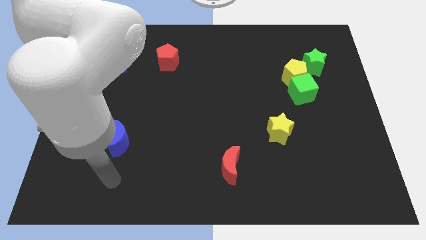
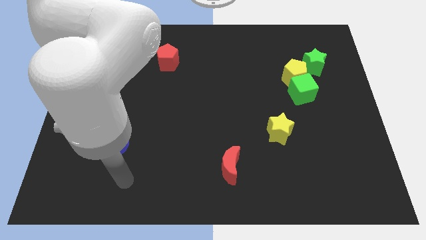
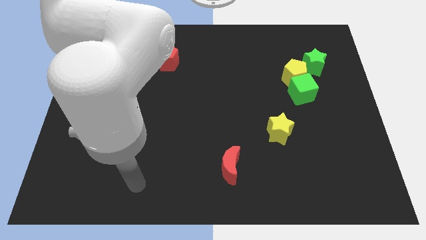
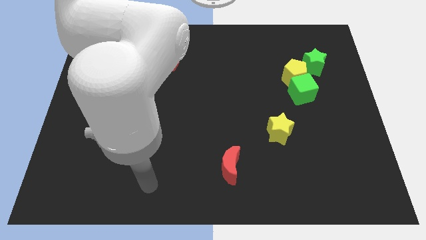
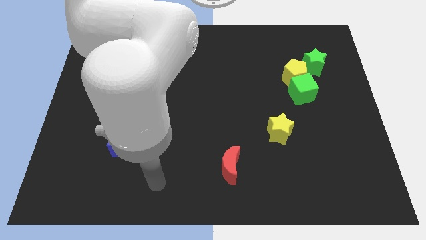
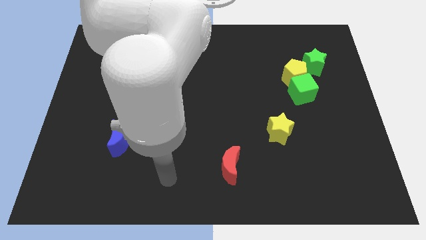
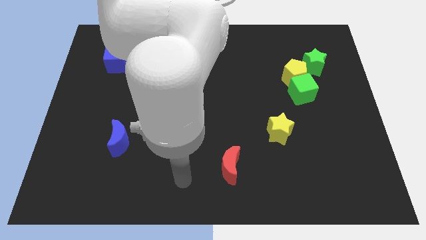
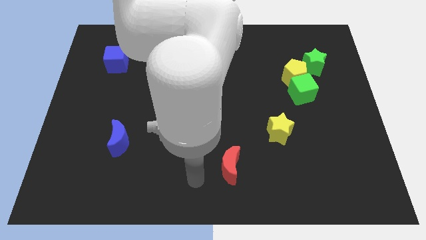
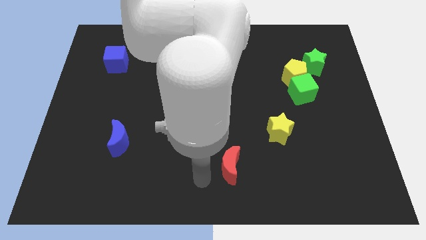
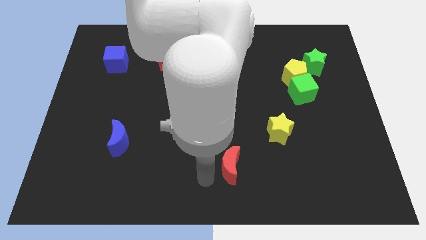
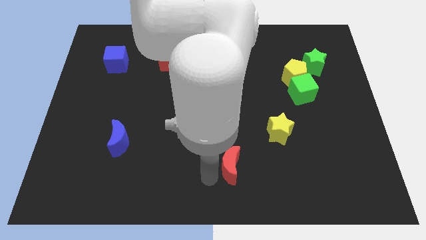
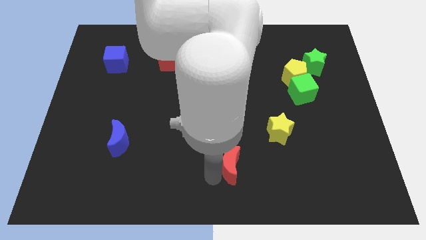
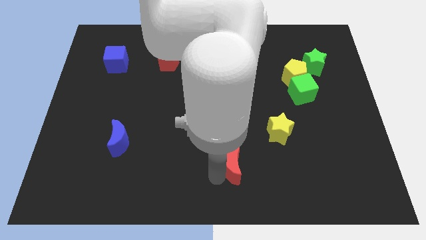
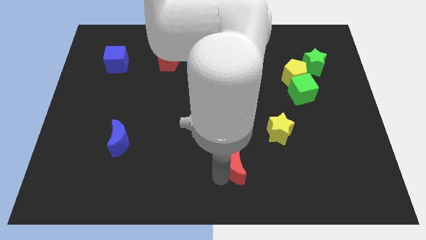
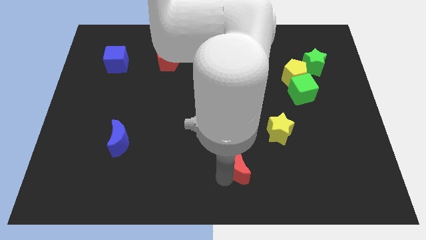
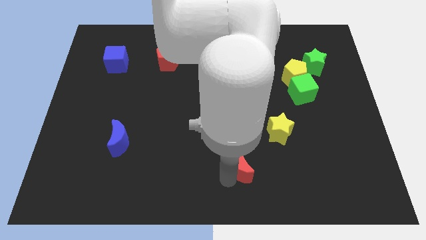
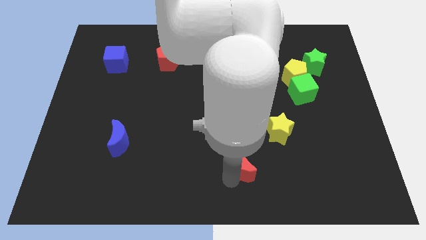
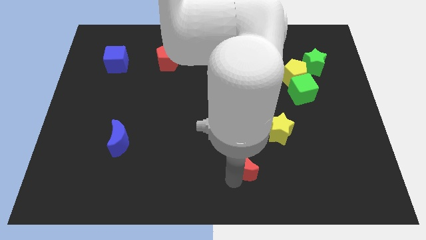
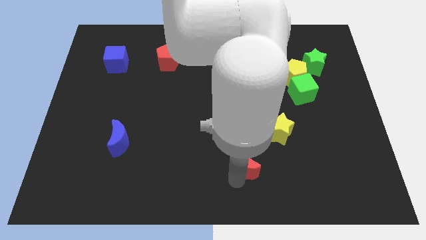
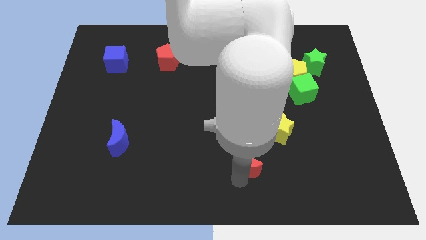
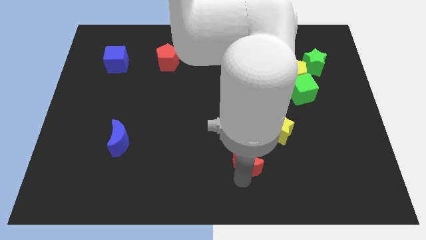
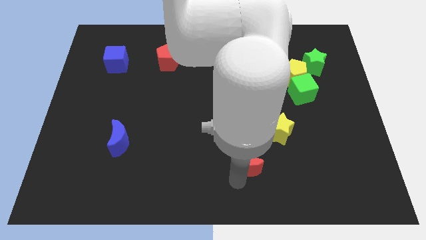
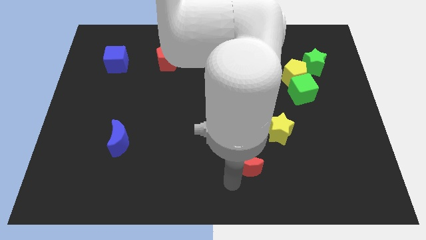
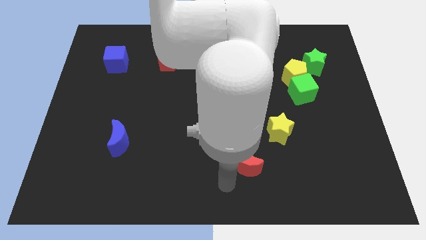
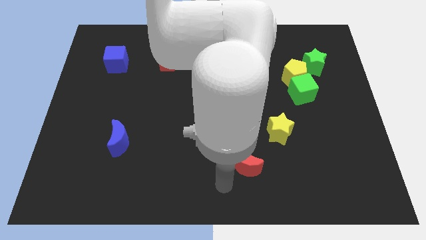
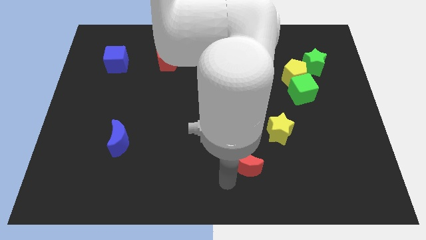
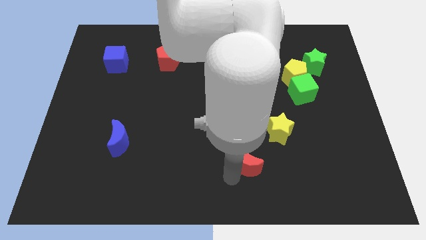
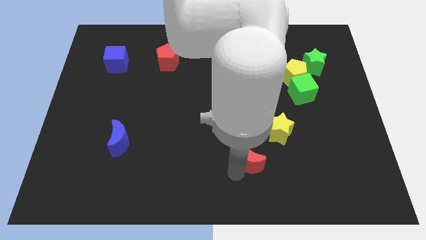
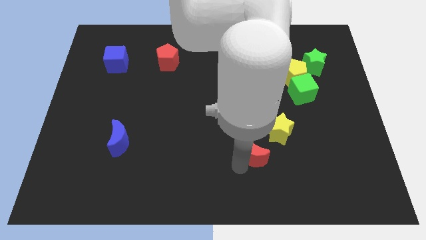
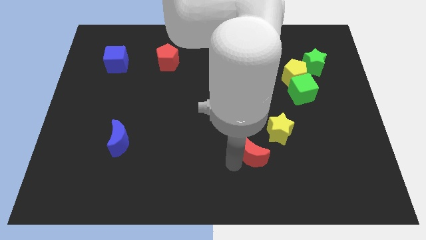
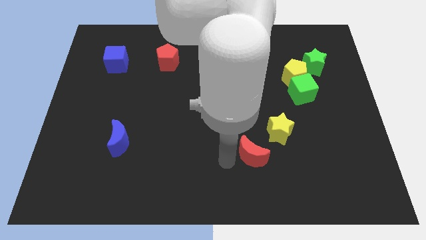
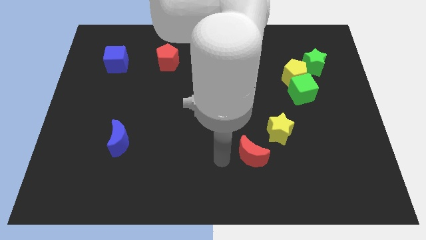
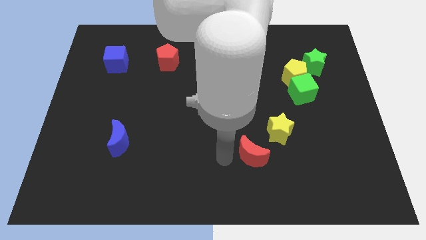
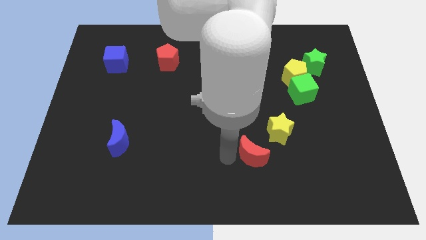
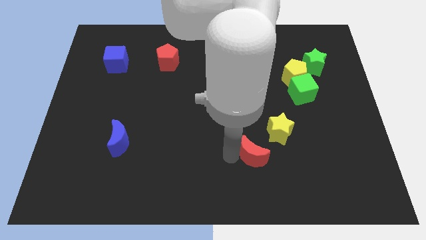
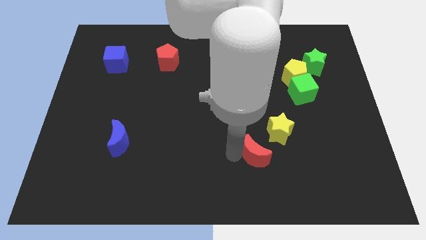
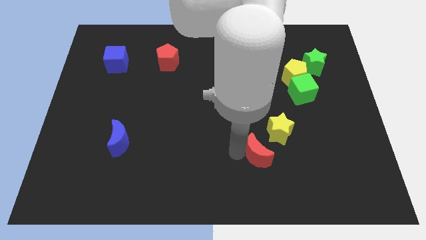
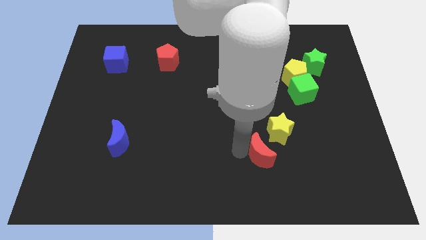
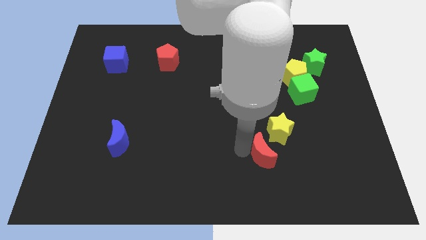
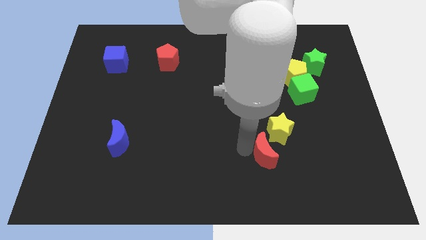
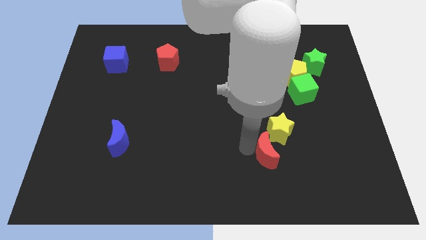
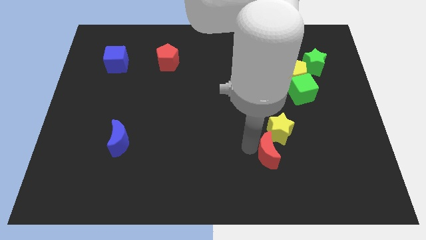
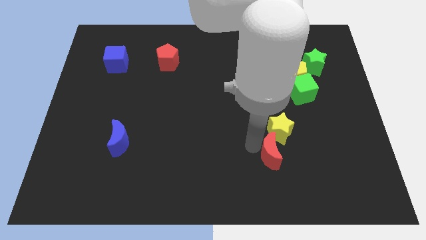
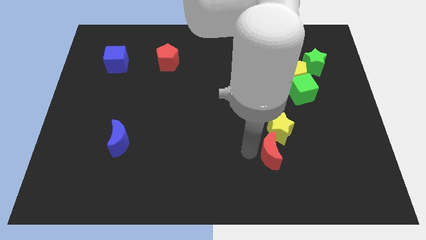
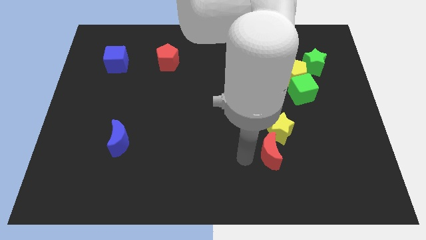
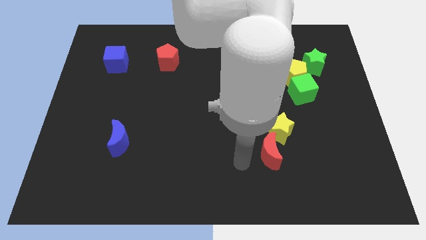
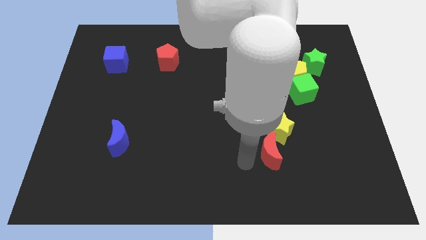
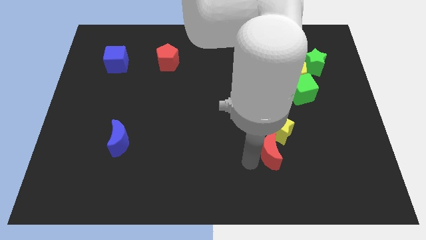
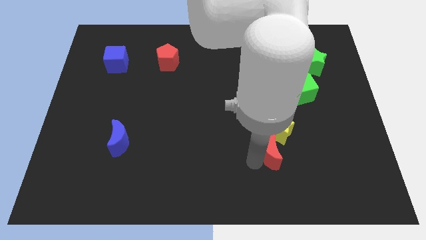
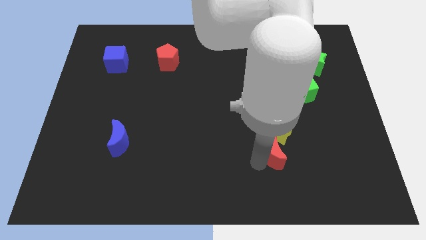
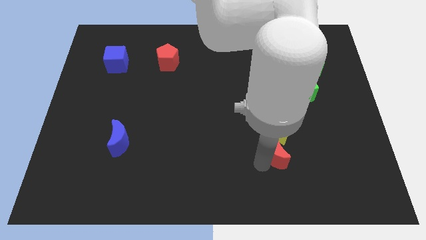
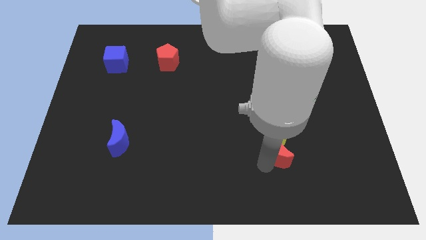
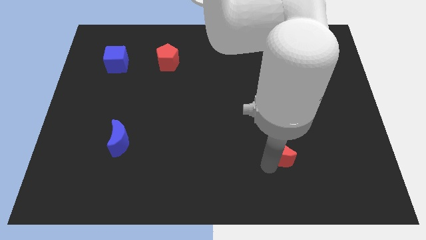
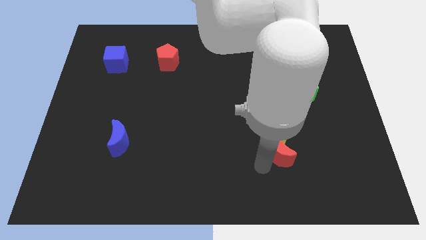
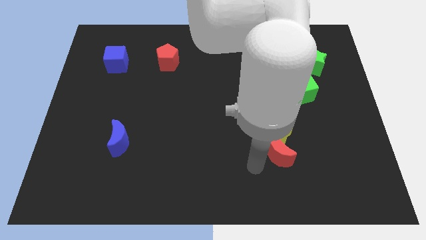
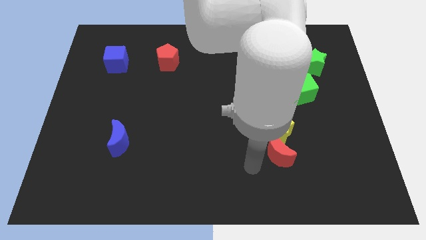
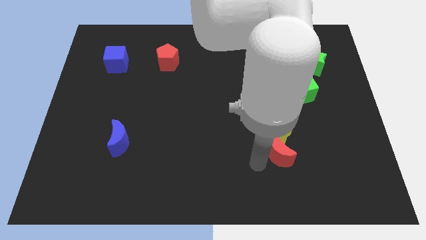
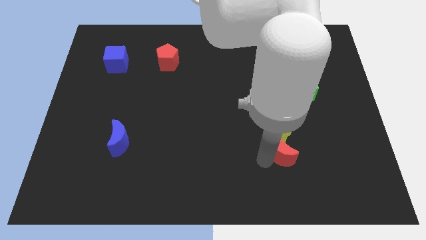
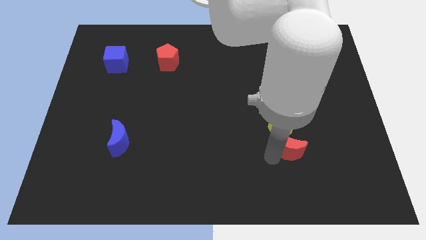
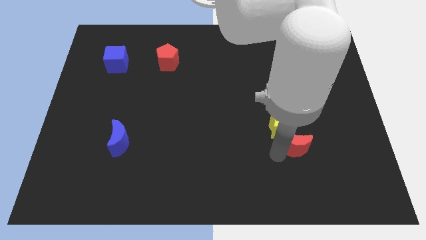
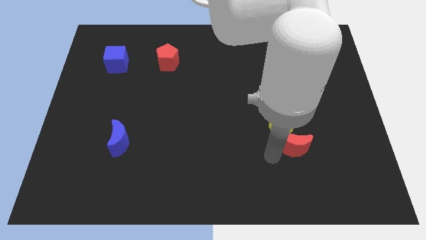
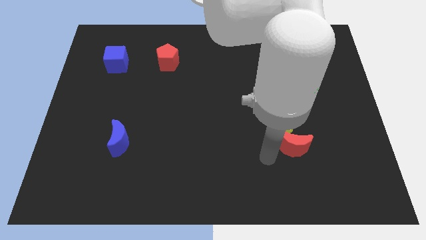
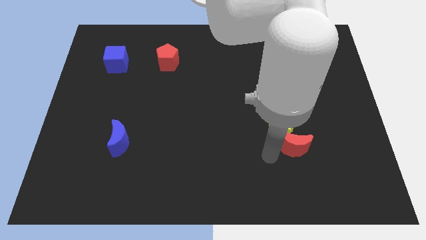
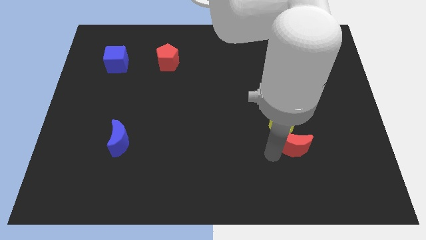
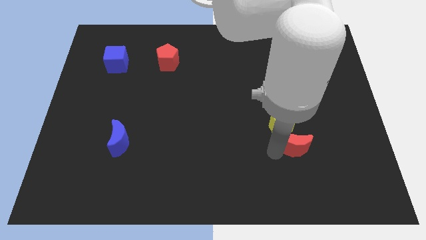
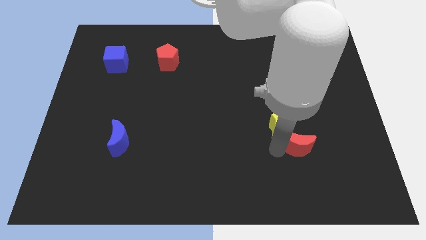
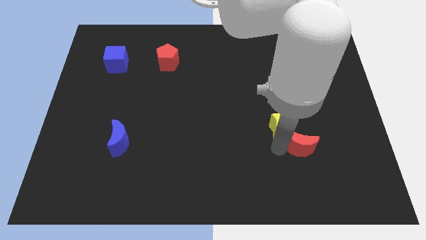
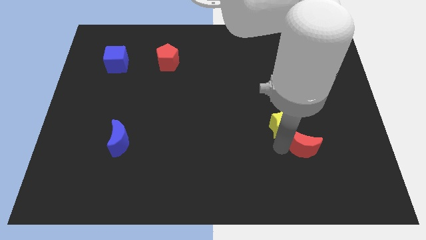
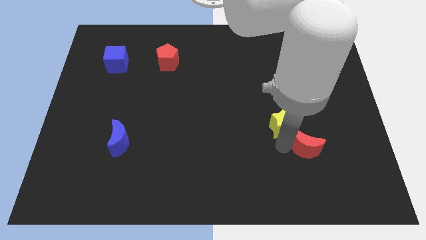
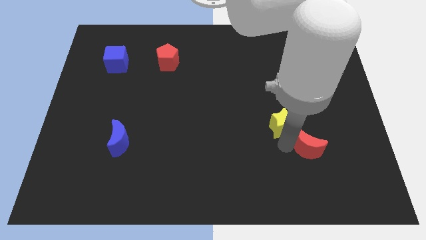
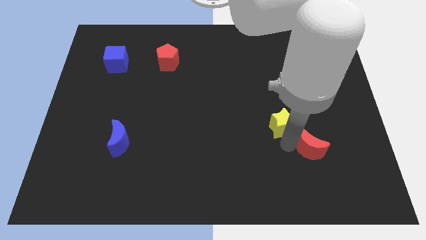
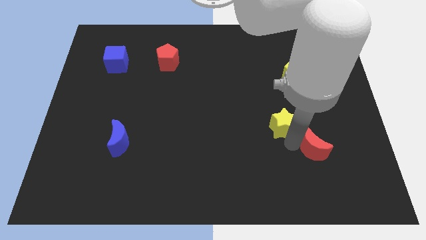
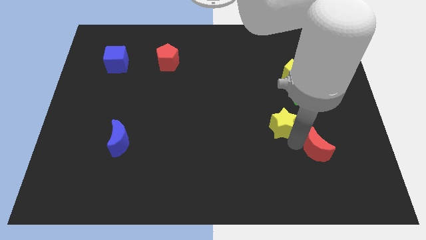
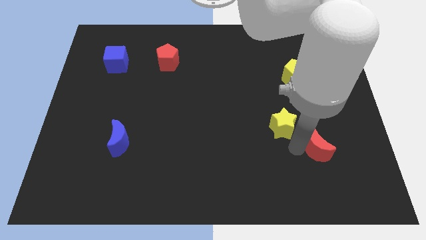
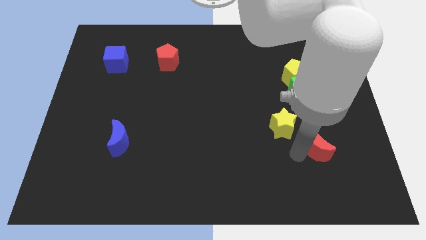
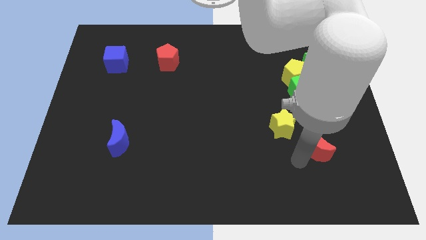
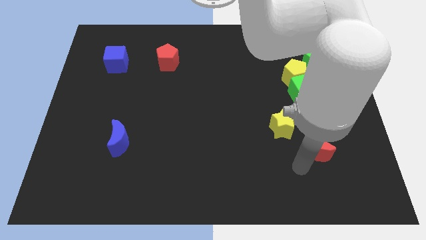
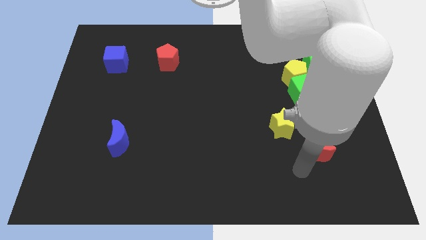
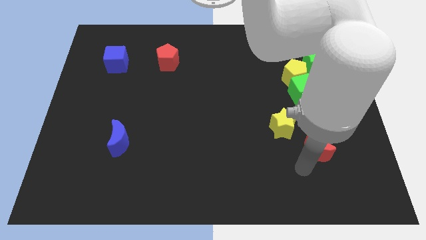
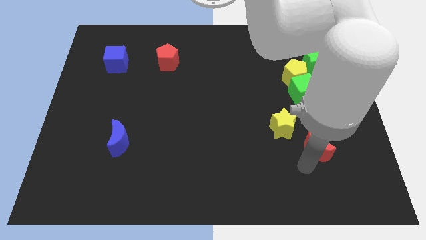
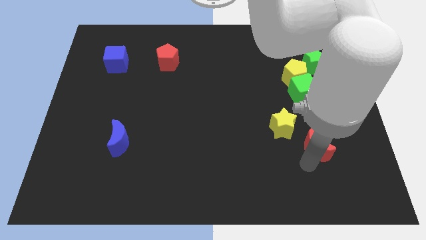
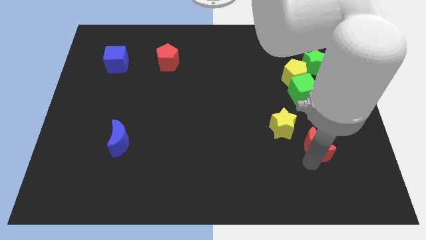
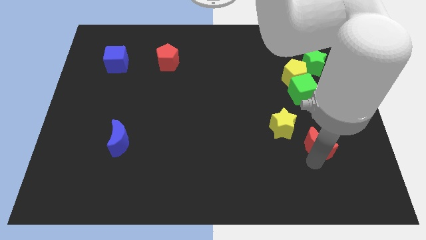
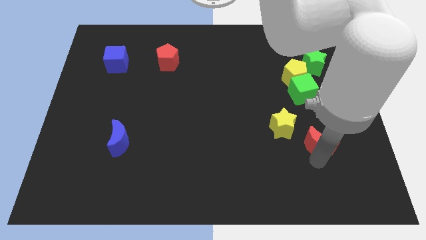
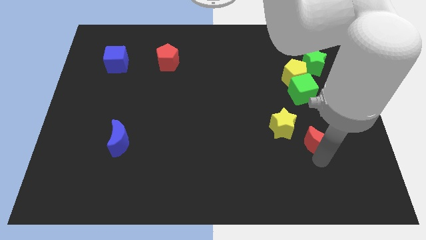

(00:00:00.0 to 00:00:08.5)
push the red moon just right of the yellow star
